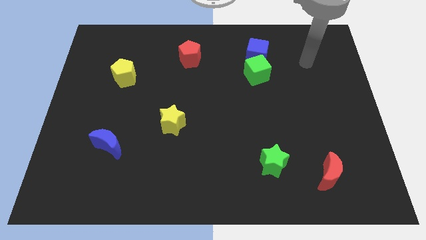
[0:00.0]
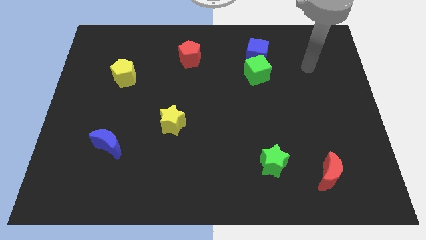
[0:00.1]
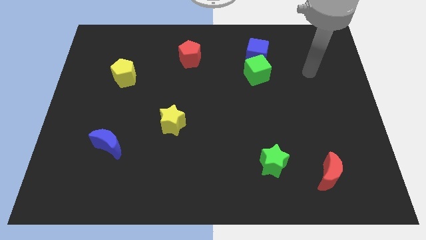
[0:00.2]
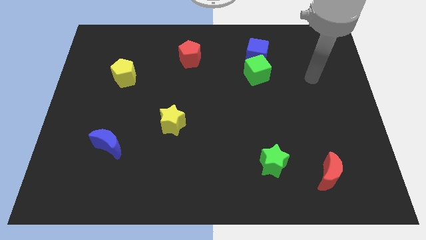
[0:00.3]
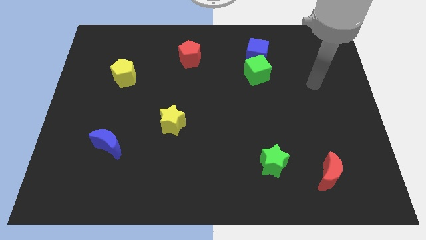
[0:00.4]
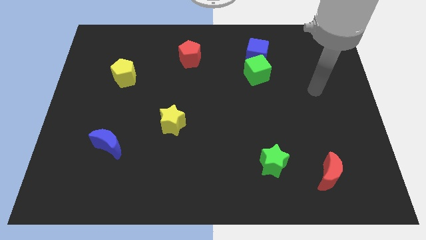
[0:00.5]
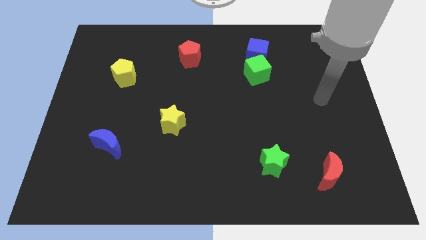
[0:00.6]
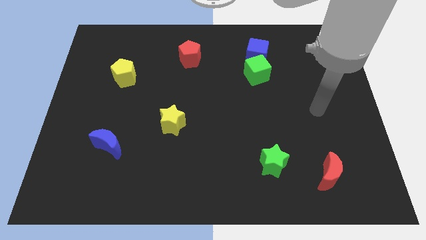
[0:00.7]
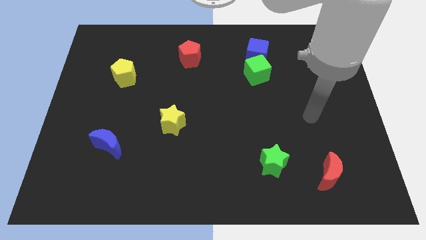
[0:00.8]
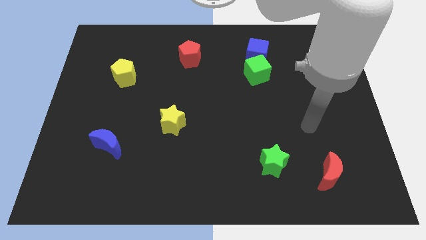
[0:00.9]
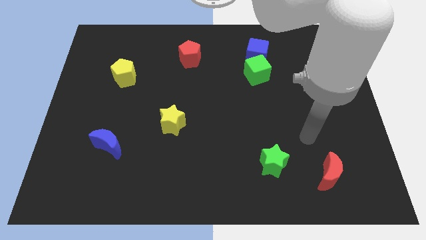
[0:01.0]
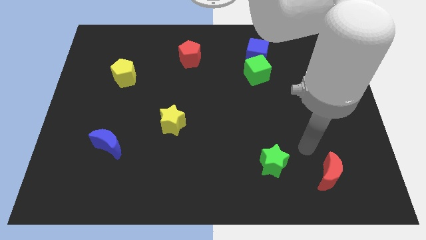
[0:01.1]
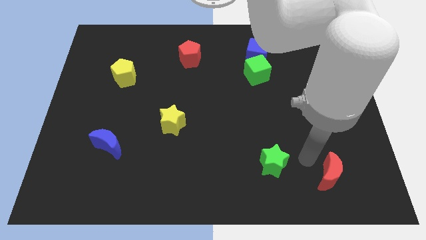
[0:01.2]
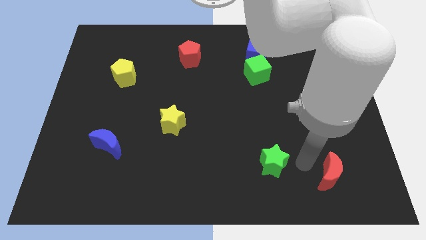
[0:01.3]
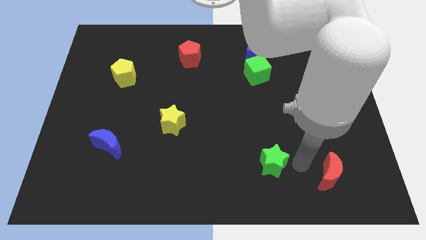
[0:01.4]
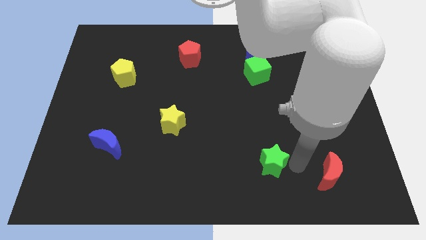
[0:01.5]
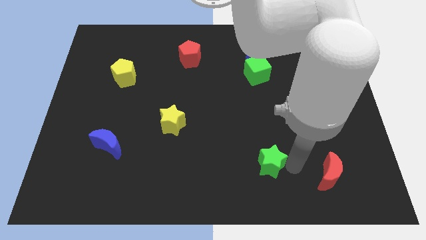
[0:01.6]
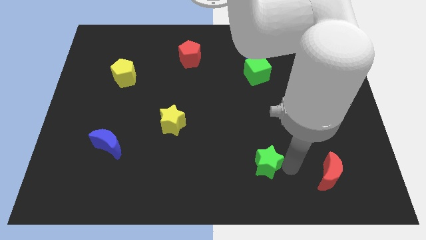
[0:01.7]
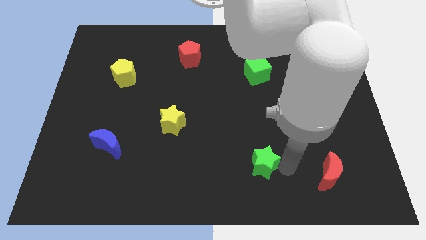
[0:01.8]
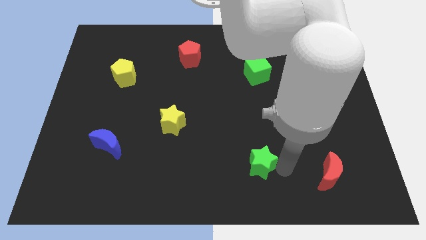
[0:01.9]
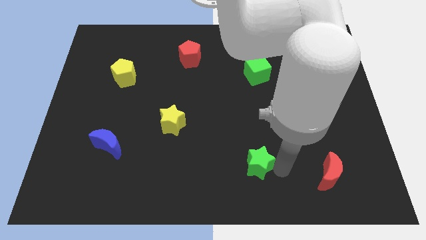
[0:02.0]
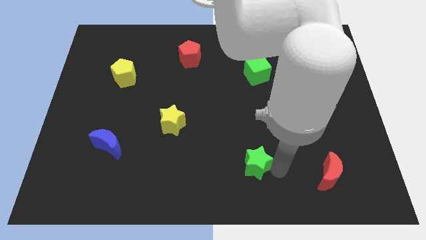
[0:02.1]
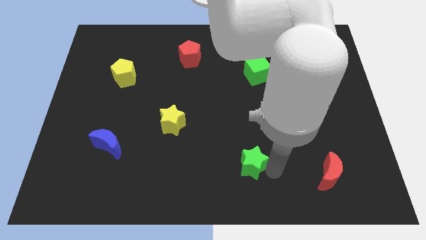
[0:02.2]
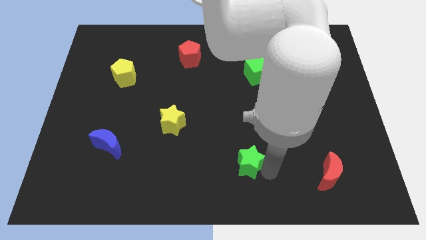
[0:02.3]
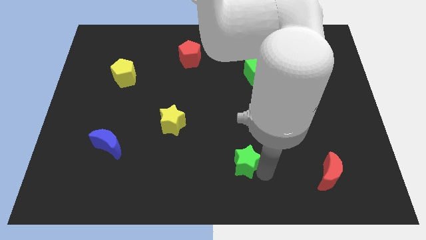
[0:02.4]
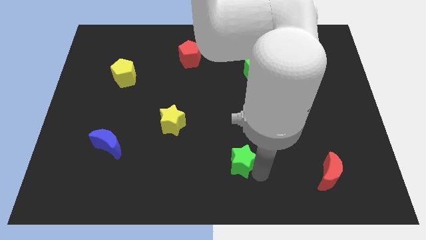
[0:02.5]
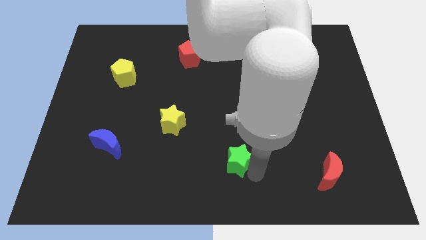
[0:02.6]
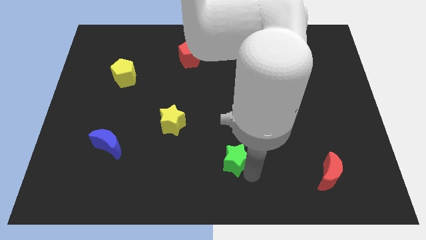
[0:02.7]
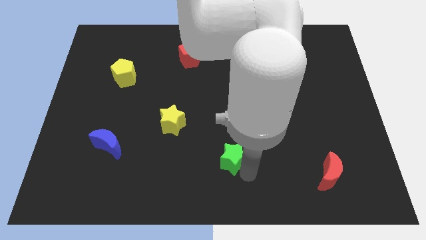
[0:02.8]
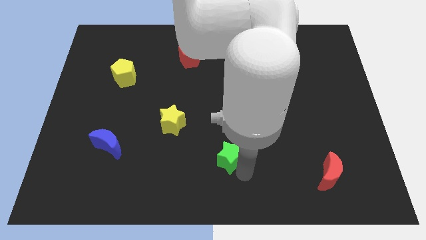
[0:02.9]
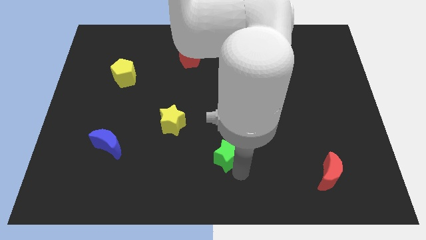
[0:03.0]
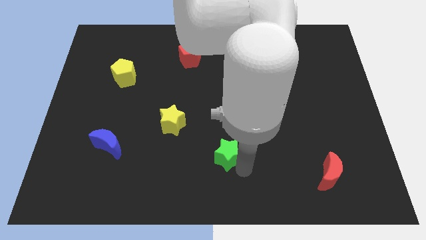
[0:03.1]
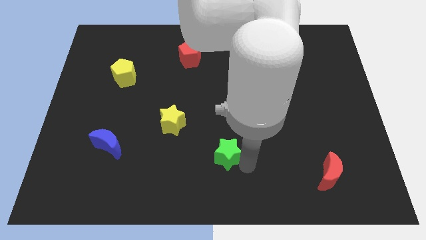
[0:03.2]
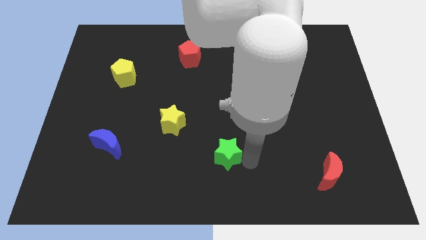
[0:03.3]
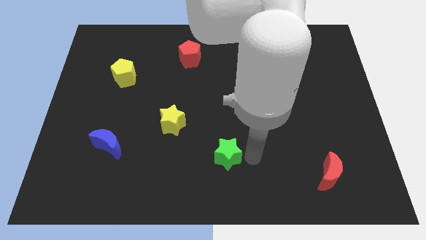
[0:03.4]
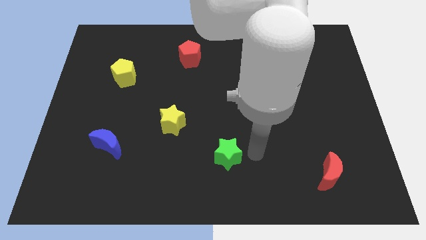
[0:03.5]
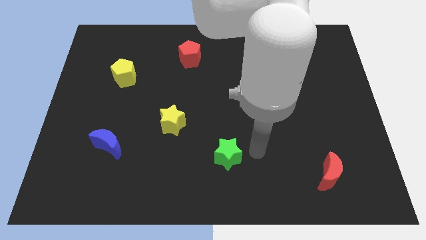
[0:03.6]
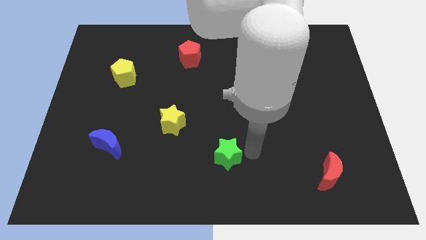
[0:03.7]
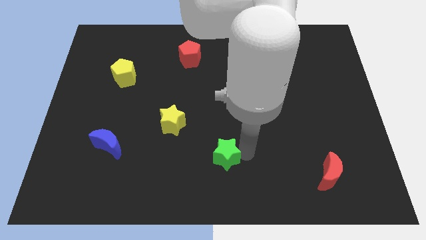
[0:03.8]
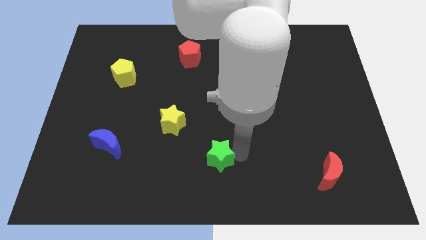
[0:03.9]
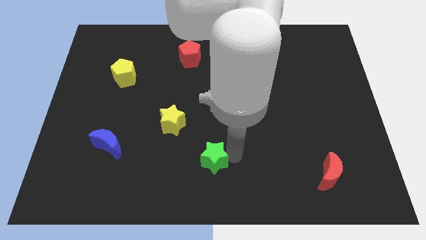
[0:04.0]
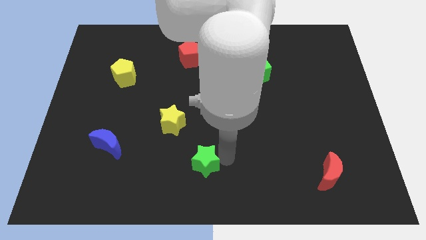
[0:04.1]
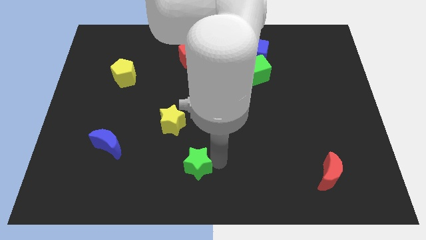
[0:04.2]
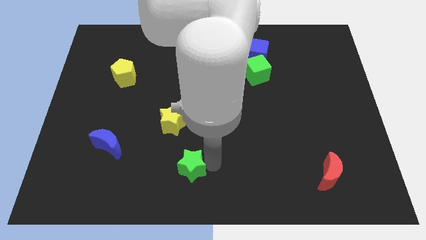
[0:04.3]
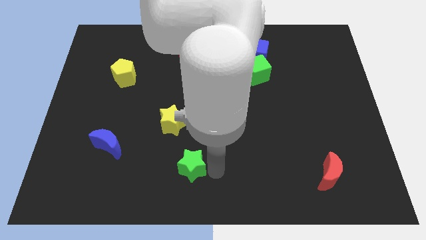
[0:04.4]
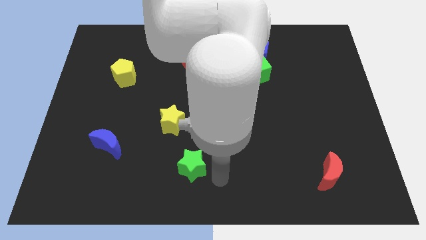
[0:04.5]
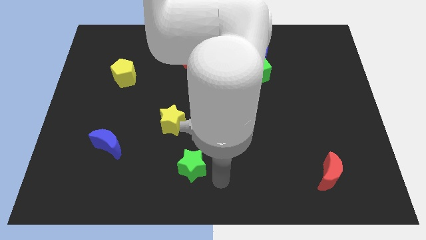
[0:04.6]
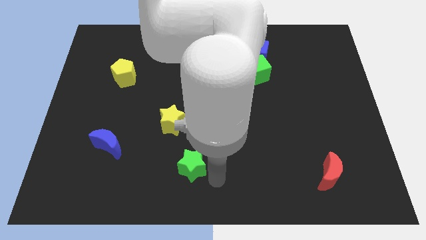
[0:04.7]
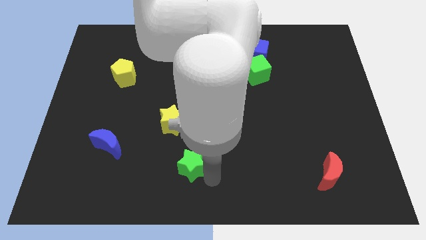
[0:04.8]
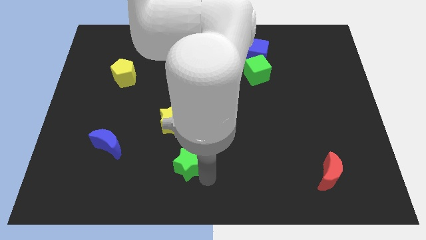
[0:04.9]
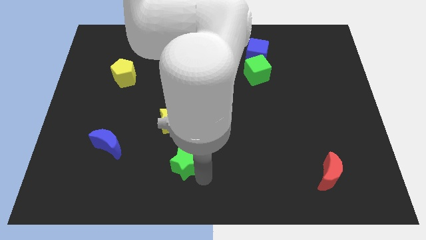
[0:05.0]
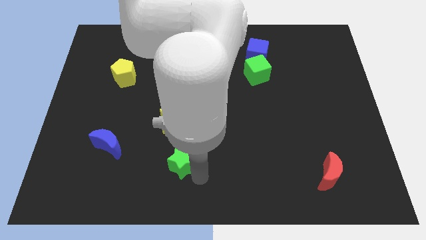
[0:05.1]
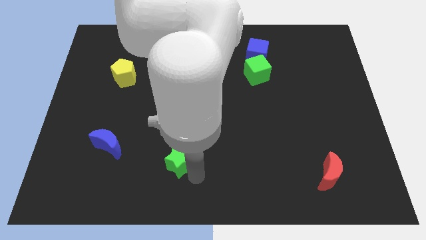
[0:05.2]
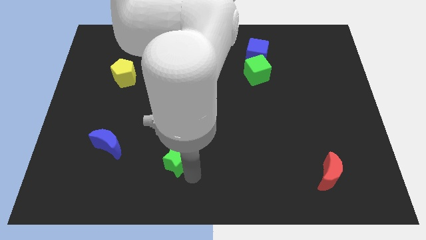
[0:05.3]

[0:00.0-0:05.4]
move the green star left

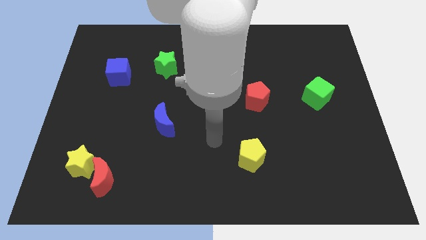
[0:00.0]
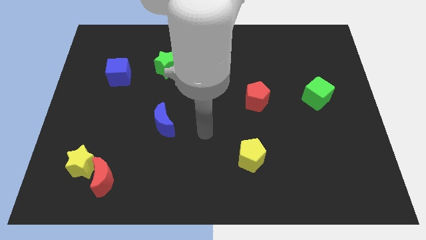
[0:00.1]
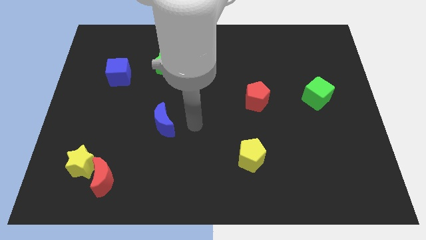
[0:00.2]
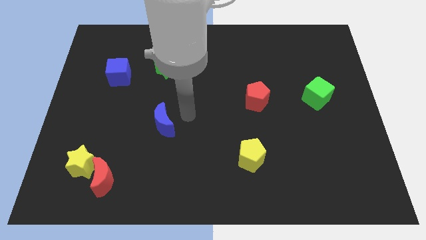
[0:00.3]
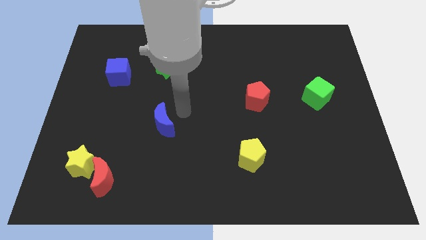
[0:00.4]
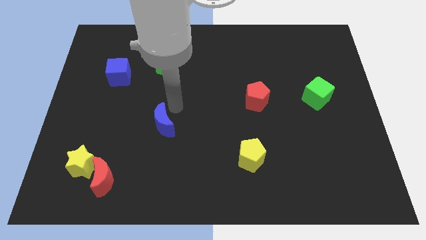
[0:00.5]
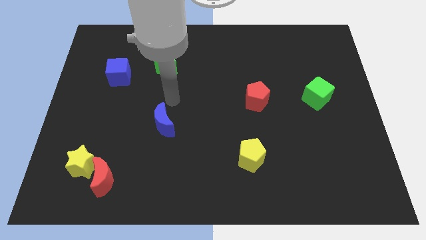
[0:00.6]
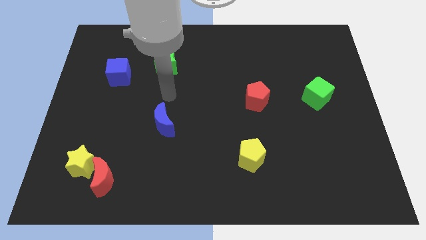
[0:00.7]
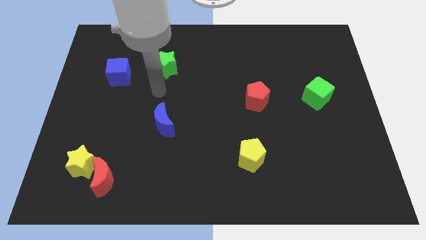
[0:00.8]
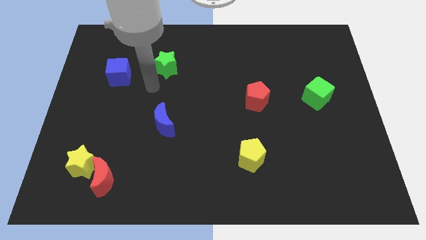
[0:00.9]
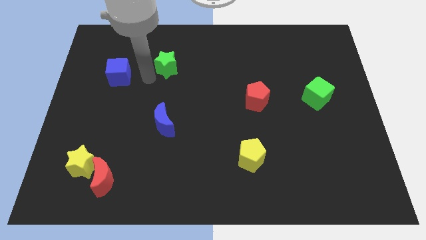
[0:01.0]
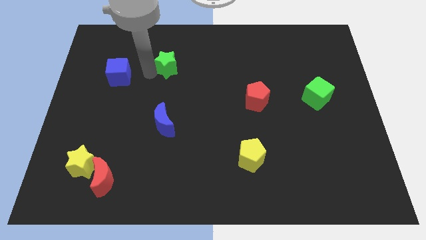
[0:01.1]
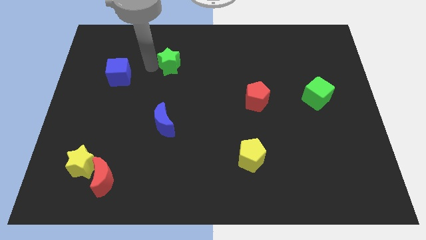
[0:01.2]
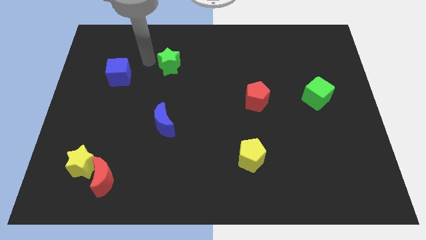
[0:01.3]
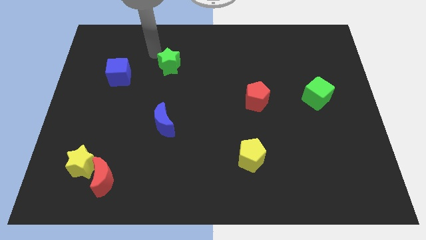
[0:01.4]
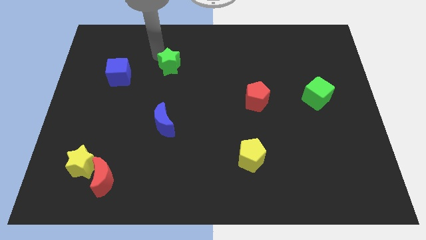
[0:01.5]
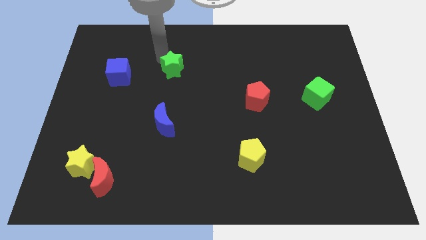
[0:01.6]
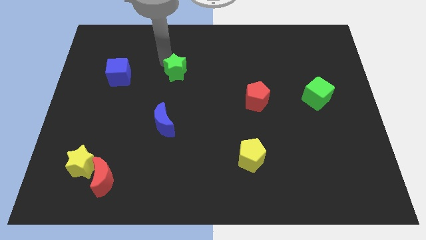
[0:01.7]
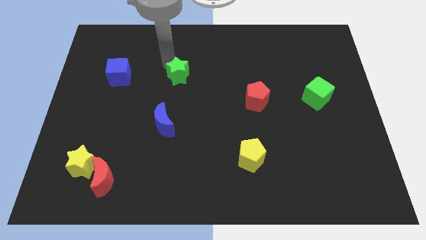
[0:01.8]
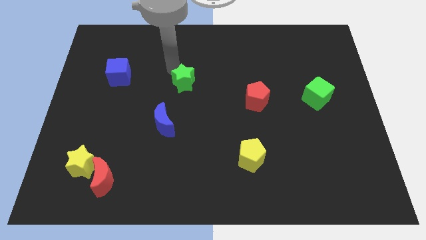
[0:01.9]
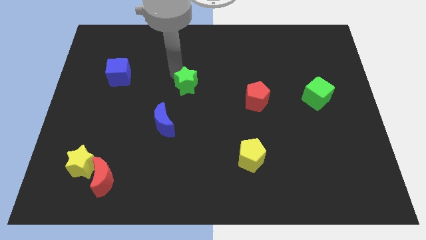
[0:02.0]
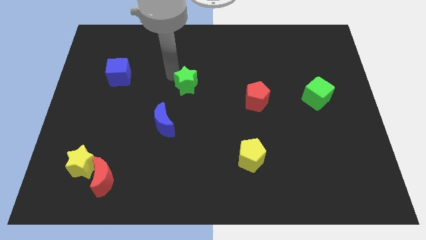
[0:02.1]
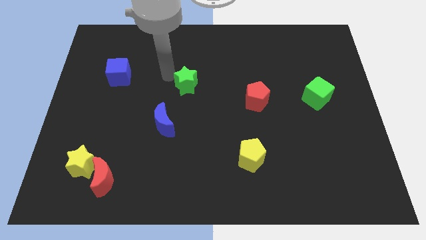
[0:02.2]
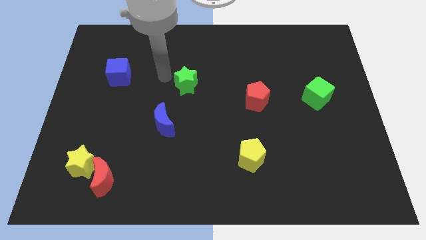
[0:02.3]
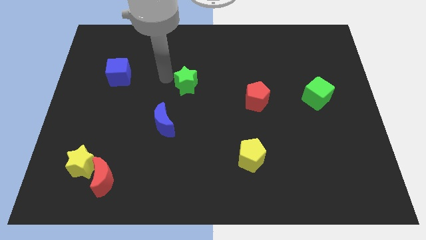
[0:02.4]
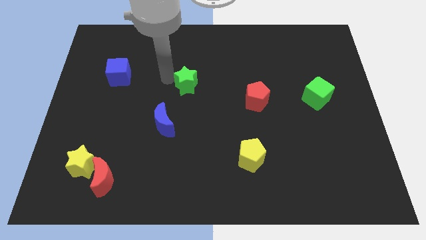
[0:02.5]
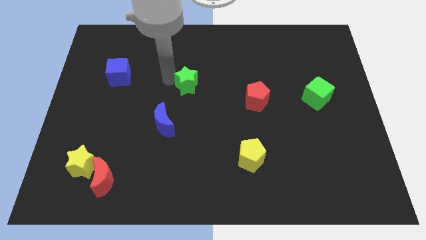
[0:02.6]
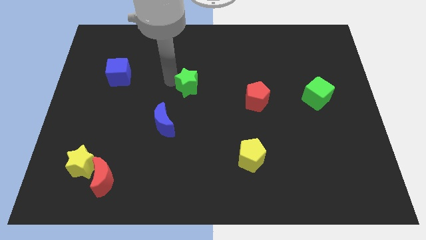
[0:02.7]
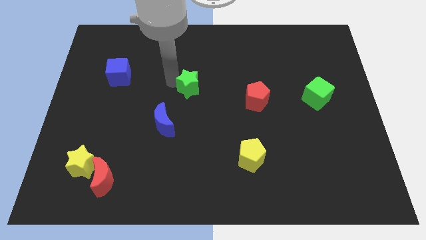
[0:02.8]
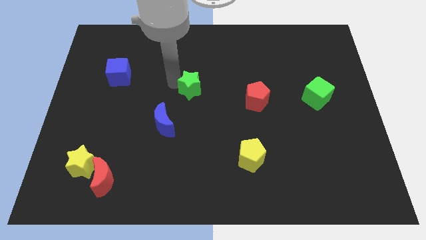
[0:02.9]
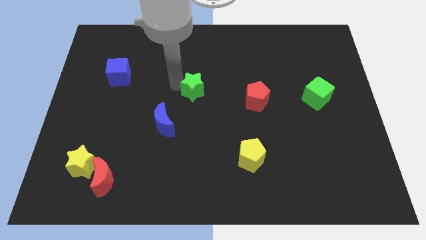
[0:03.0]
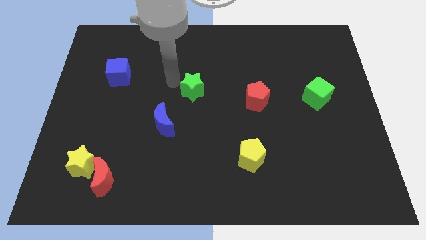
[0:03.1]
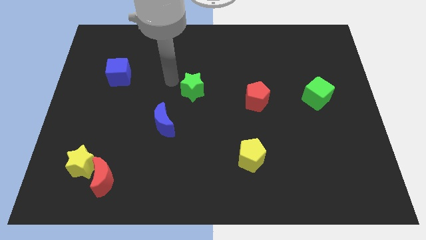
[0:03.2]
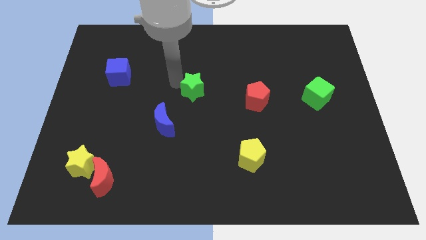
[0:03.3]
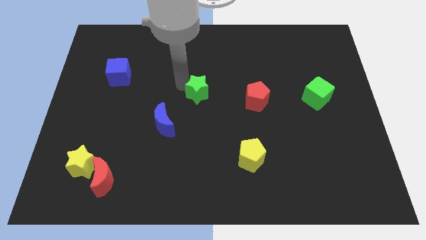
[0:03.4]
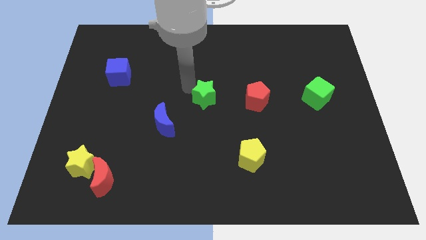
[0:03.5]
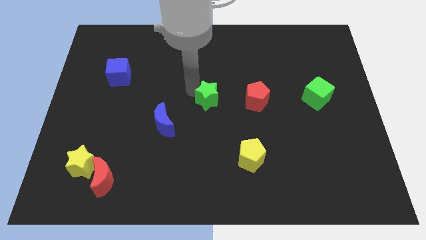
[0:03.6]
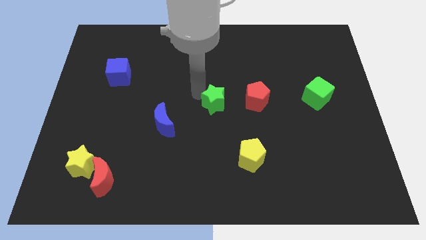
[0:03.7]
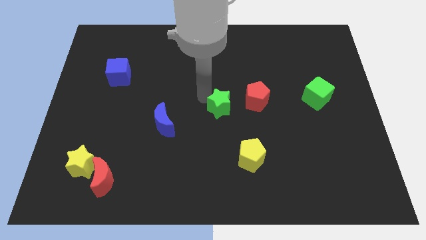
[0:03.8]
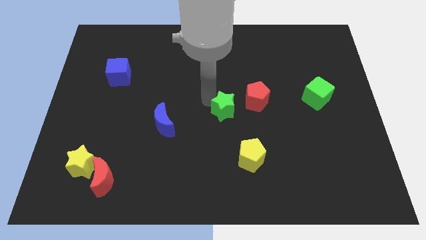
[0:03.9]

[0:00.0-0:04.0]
slide the green star downwards and to the right
